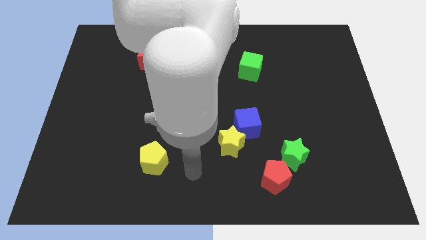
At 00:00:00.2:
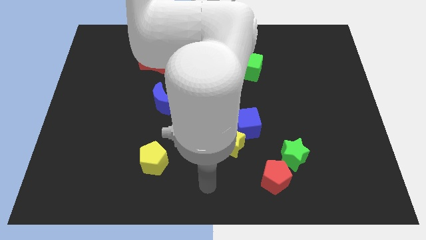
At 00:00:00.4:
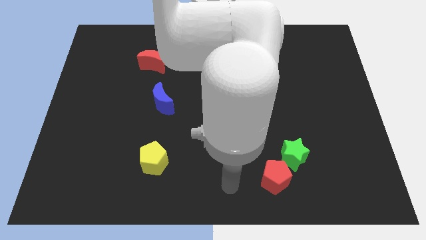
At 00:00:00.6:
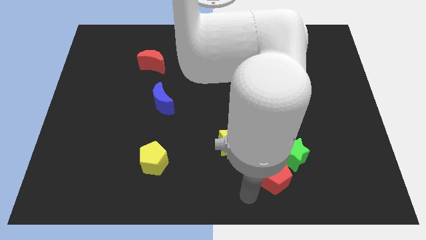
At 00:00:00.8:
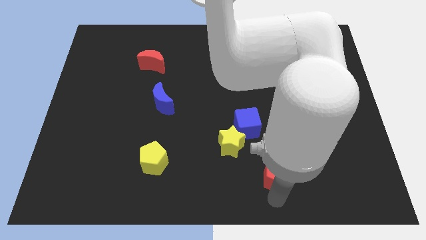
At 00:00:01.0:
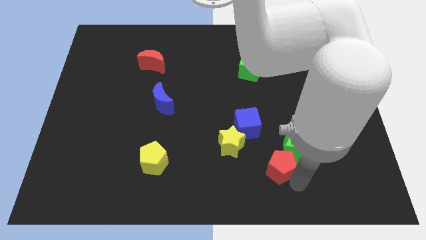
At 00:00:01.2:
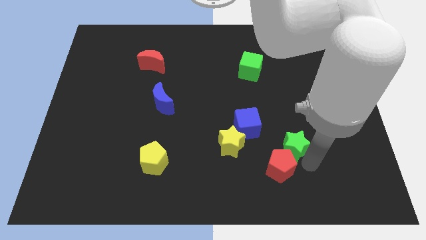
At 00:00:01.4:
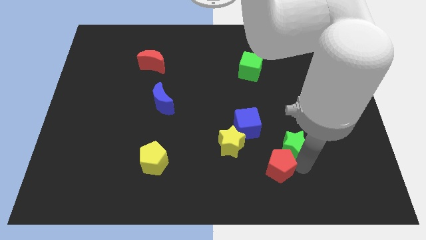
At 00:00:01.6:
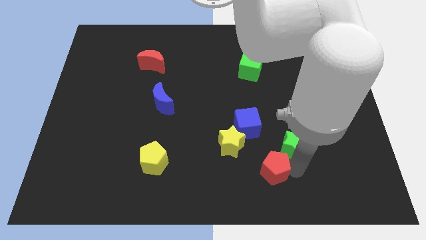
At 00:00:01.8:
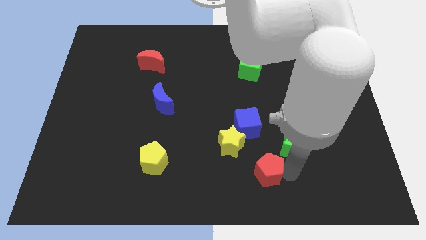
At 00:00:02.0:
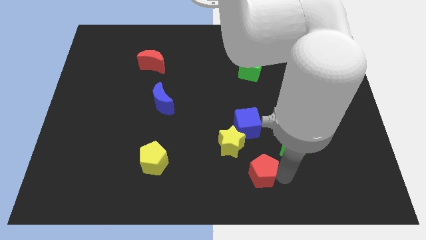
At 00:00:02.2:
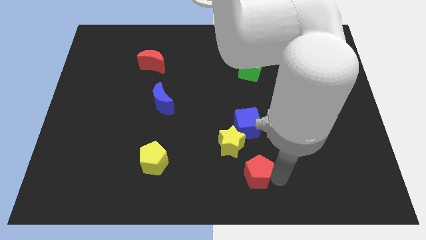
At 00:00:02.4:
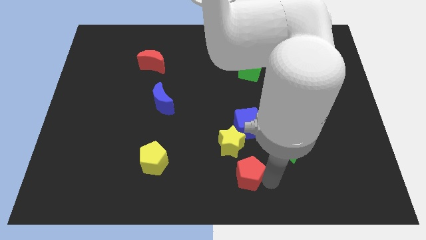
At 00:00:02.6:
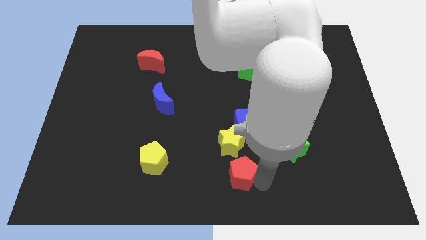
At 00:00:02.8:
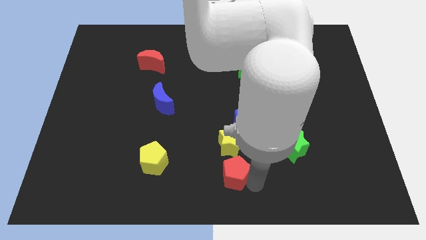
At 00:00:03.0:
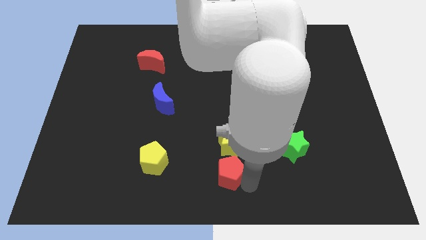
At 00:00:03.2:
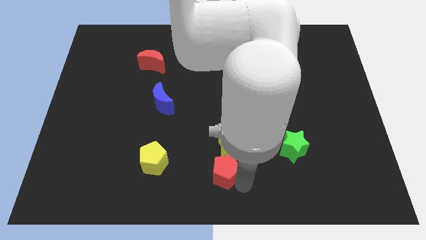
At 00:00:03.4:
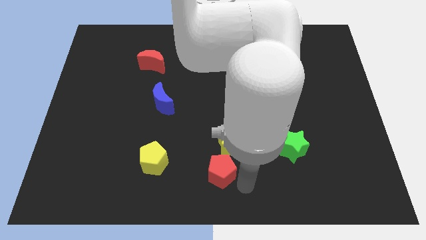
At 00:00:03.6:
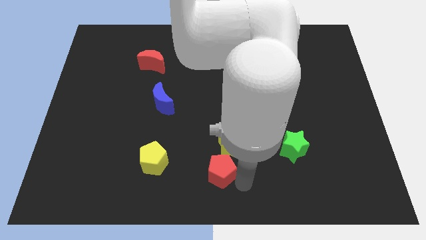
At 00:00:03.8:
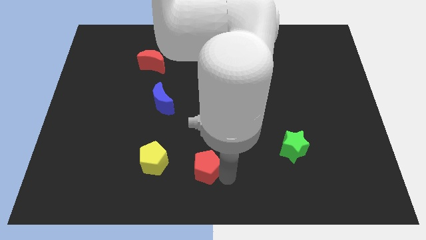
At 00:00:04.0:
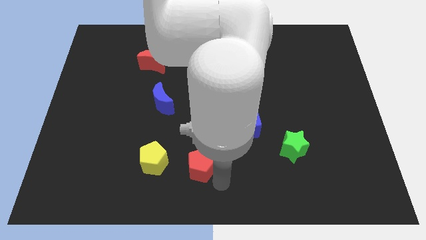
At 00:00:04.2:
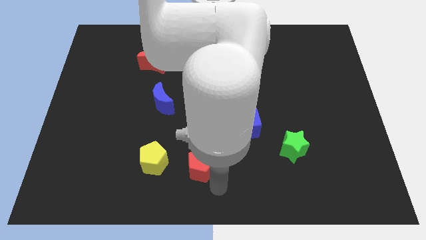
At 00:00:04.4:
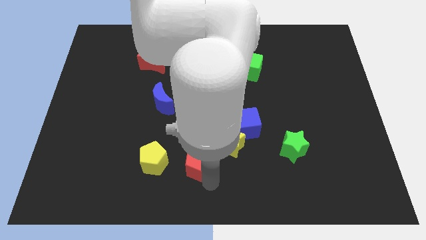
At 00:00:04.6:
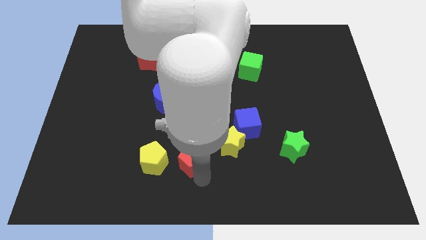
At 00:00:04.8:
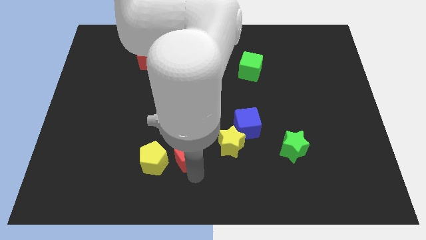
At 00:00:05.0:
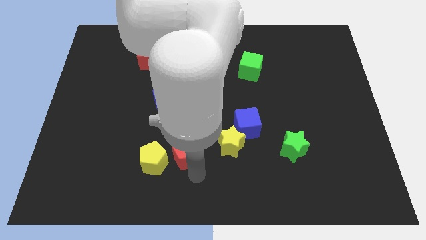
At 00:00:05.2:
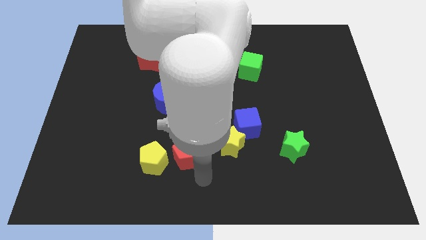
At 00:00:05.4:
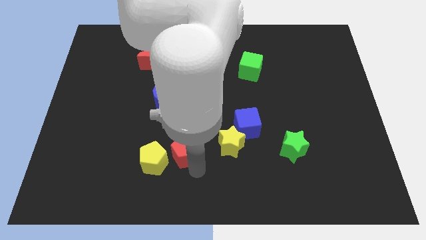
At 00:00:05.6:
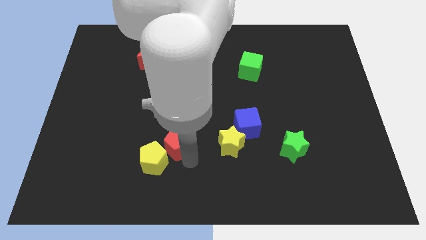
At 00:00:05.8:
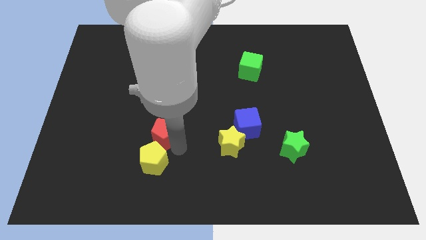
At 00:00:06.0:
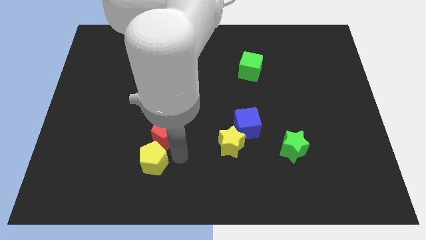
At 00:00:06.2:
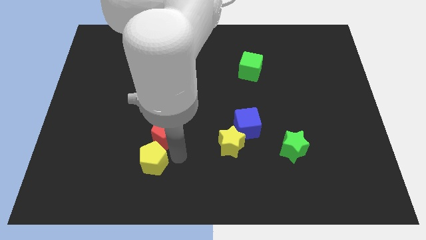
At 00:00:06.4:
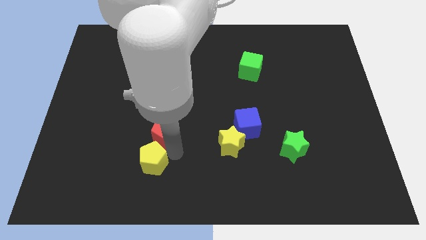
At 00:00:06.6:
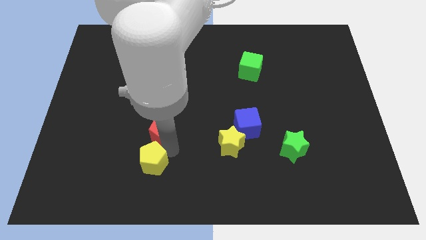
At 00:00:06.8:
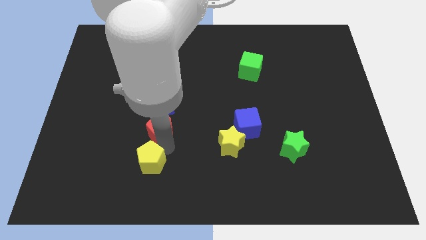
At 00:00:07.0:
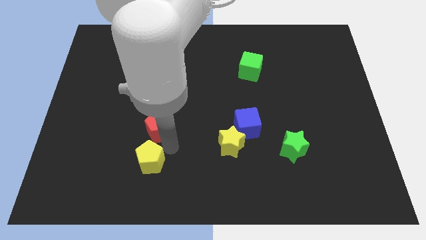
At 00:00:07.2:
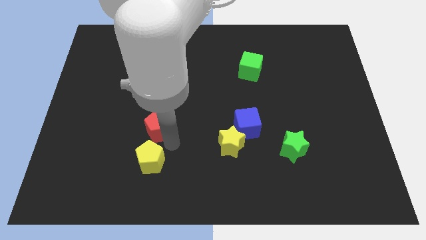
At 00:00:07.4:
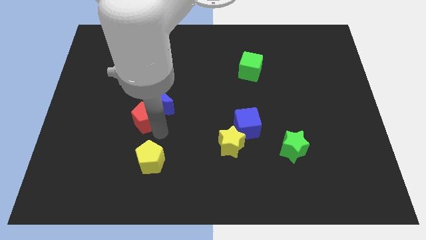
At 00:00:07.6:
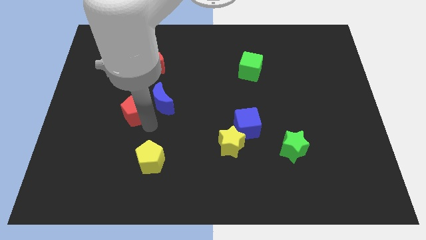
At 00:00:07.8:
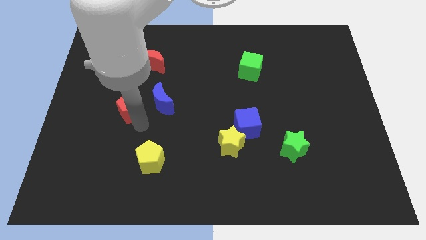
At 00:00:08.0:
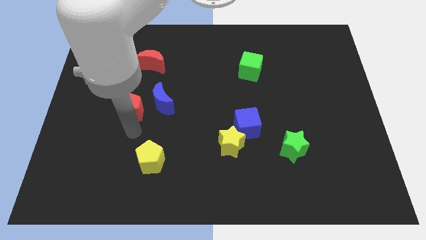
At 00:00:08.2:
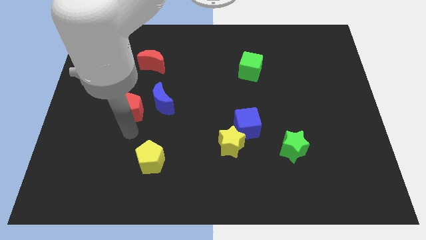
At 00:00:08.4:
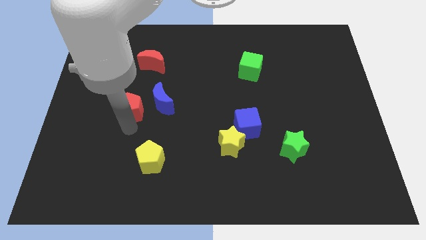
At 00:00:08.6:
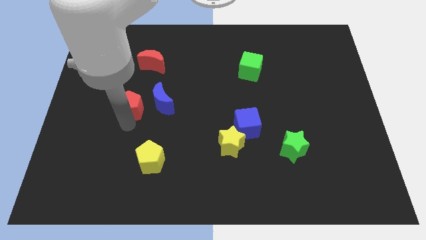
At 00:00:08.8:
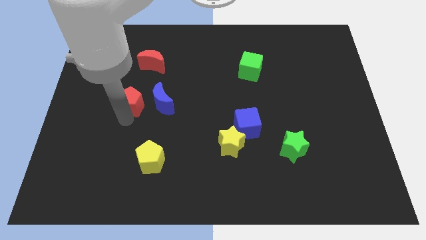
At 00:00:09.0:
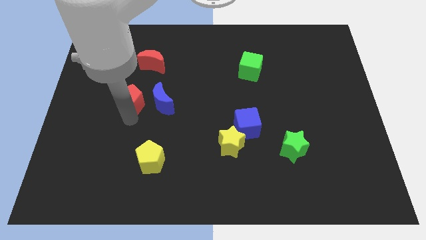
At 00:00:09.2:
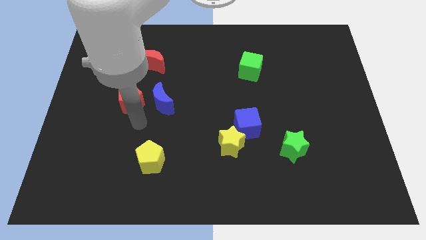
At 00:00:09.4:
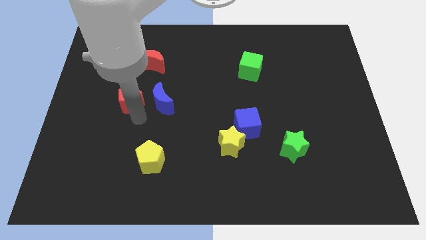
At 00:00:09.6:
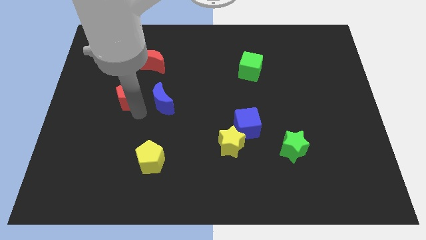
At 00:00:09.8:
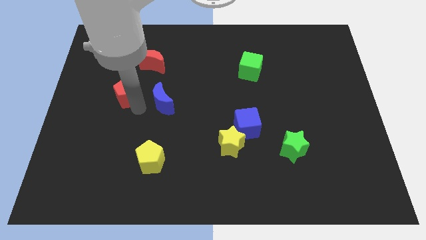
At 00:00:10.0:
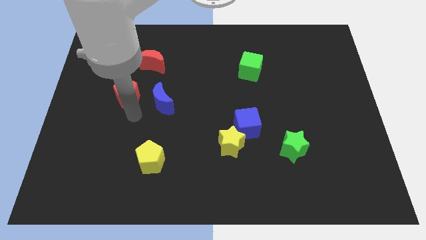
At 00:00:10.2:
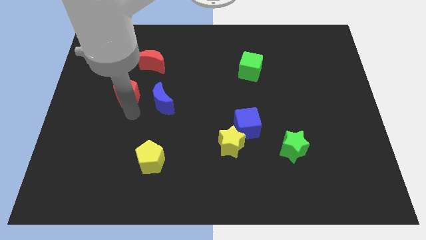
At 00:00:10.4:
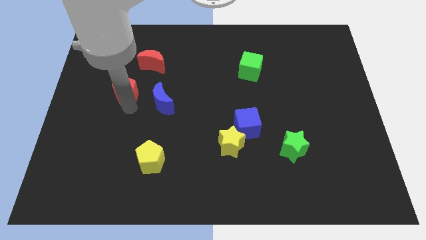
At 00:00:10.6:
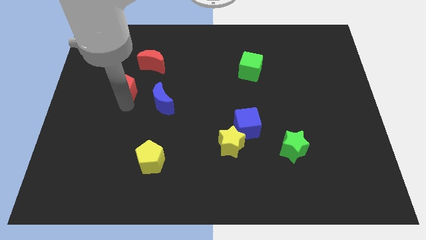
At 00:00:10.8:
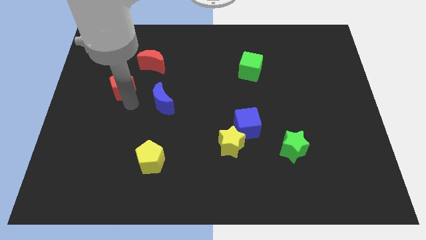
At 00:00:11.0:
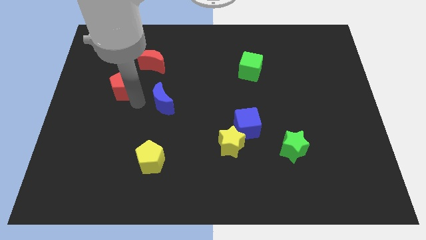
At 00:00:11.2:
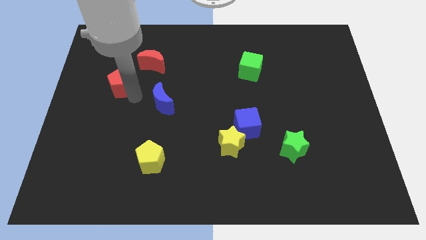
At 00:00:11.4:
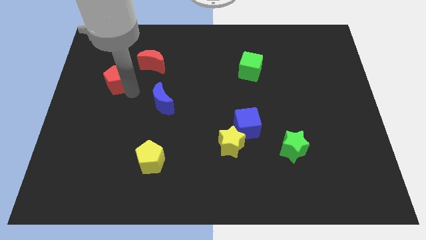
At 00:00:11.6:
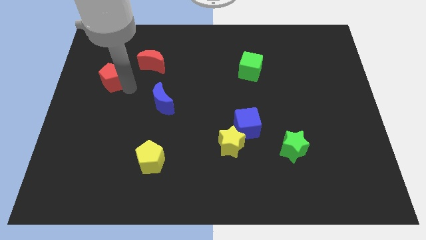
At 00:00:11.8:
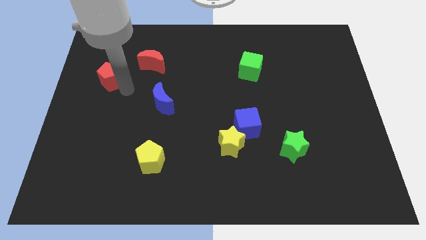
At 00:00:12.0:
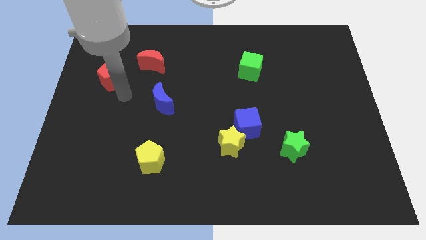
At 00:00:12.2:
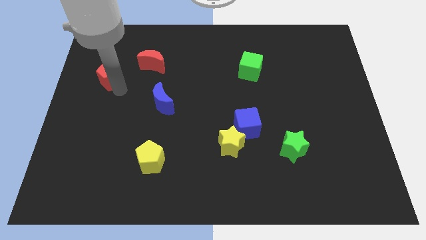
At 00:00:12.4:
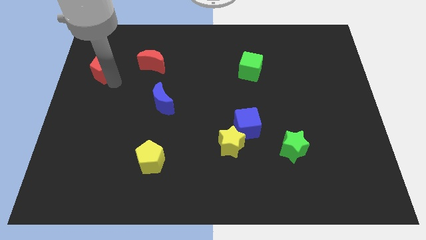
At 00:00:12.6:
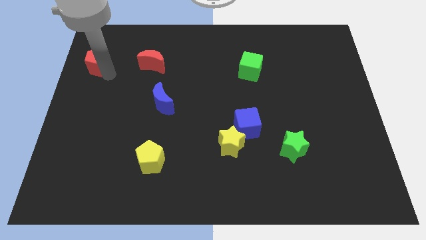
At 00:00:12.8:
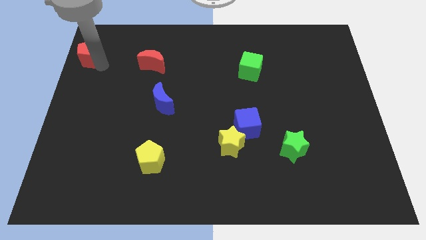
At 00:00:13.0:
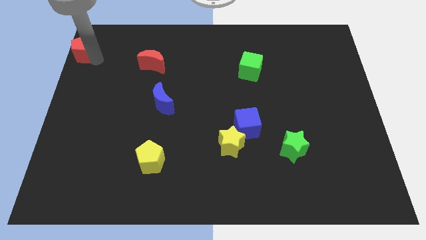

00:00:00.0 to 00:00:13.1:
push the red pentagon to the top left
